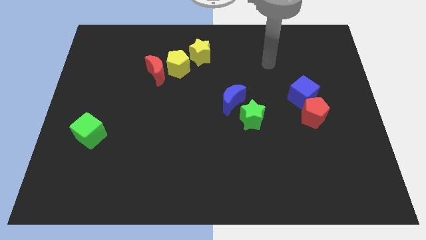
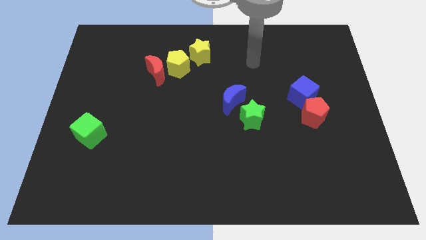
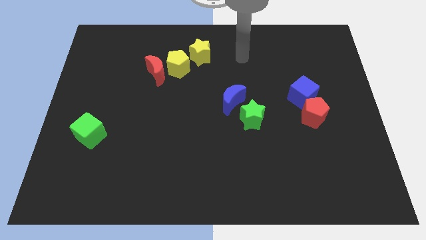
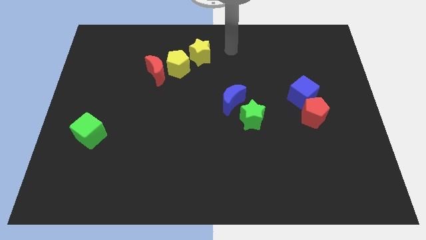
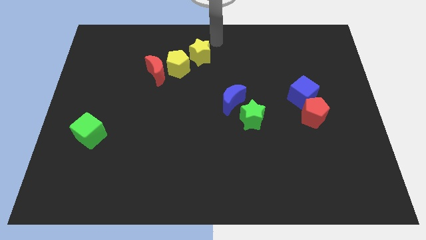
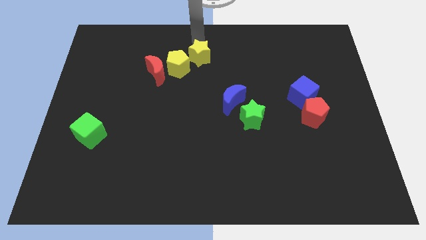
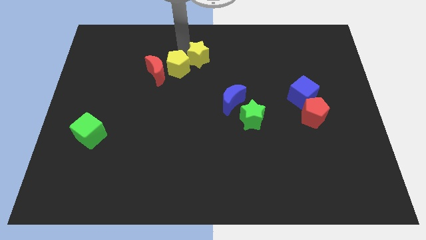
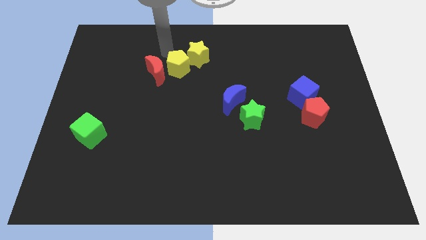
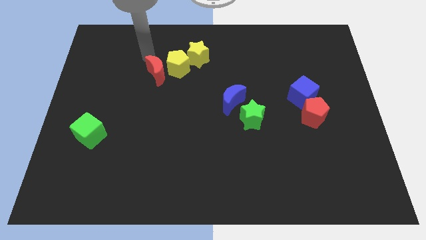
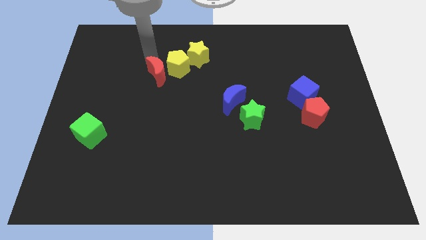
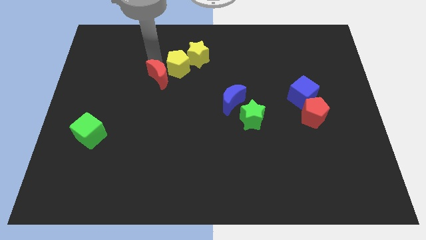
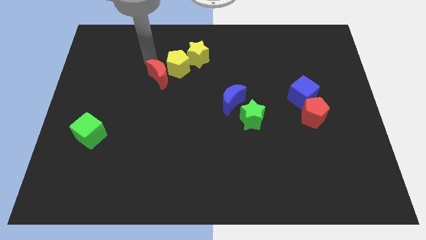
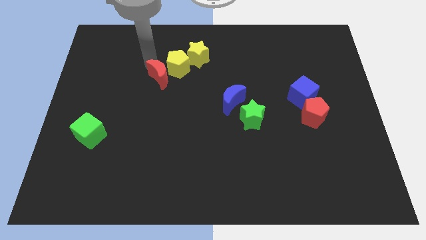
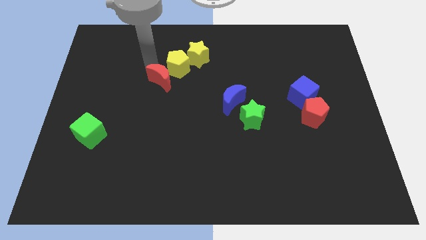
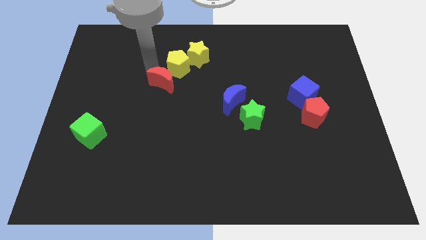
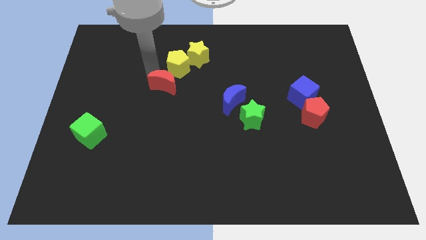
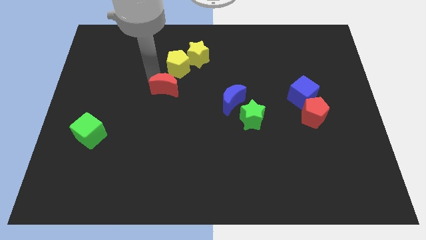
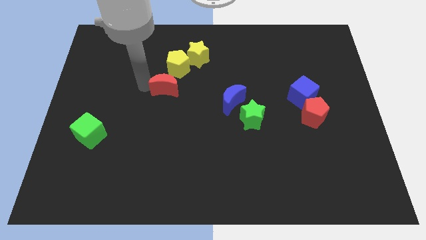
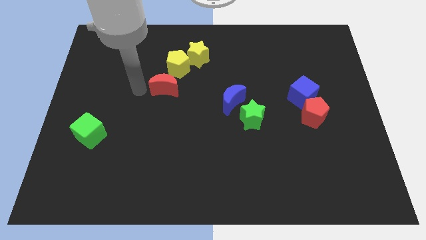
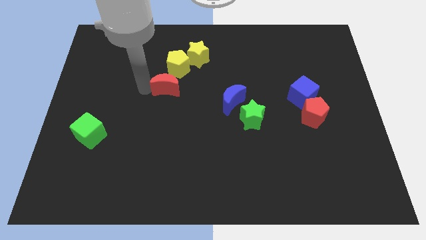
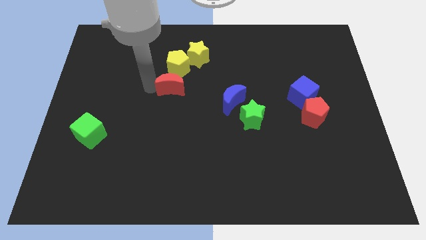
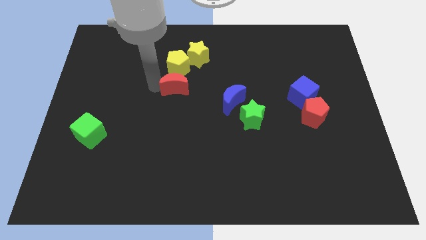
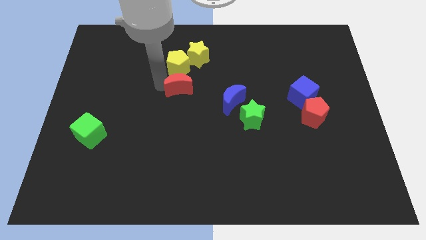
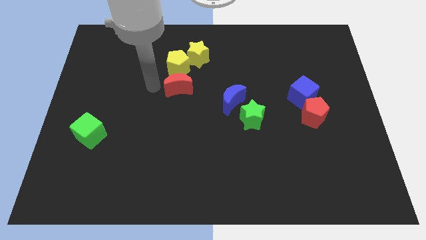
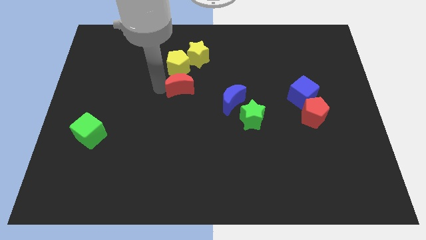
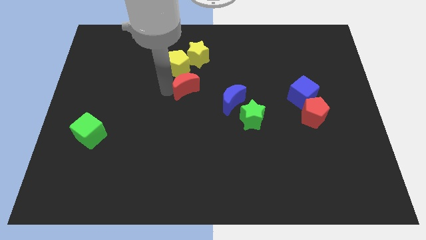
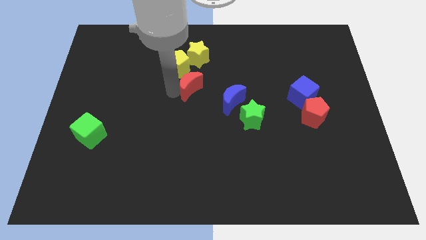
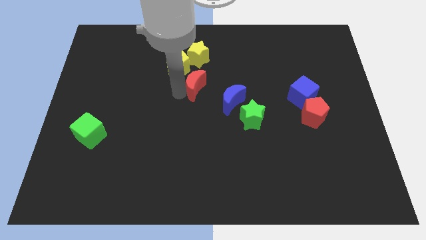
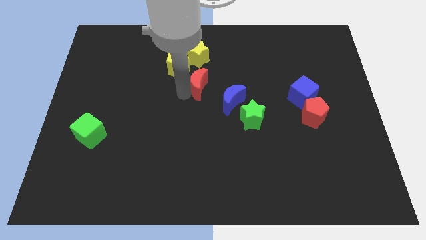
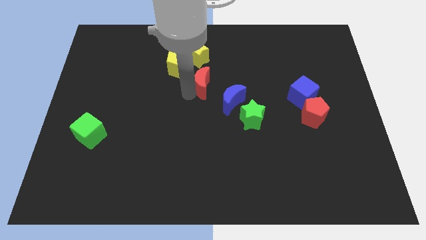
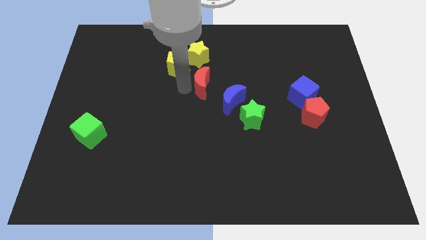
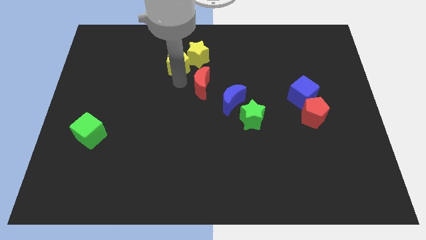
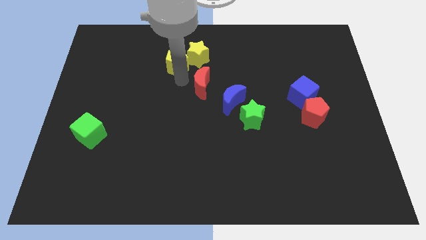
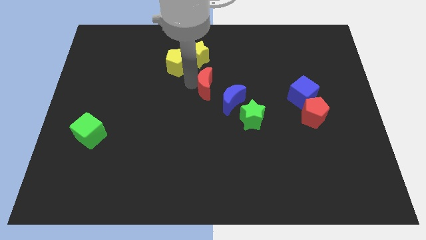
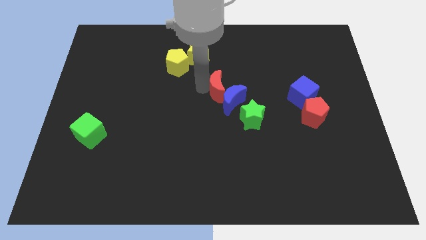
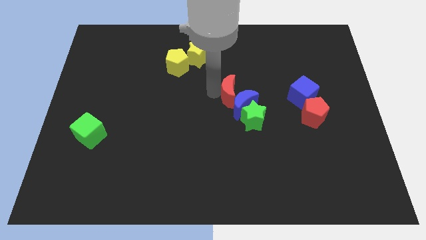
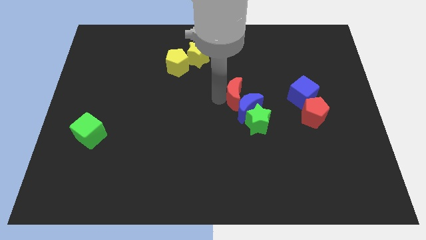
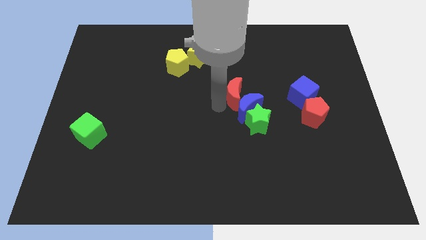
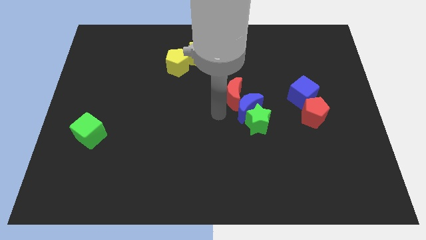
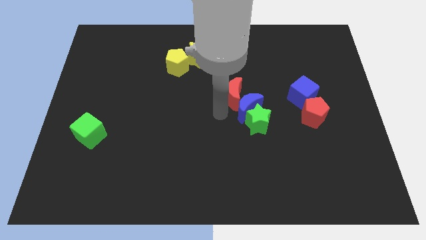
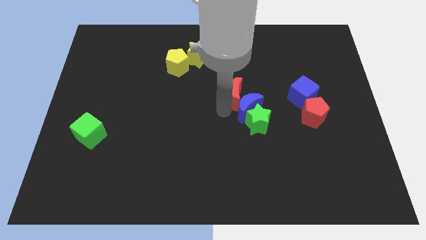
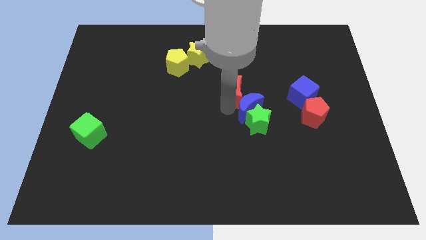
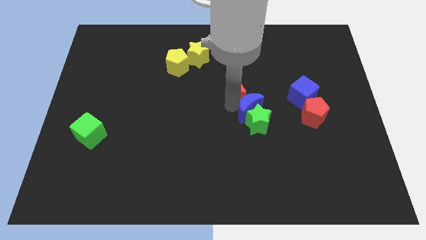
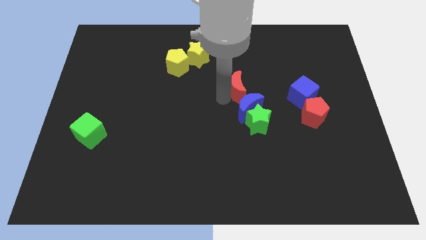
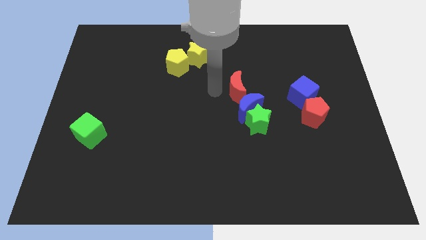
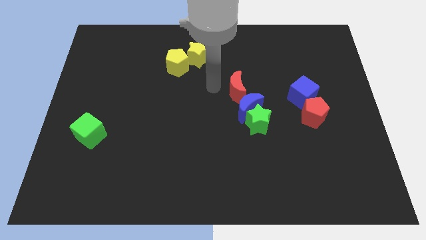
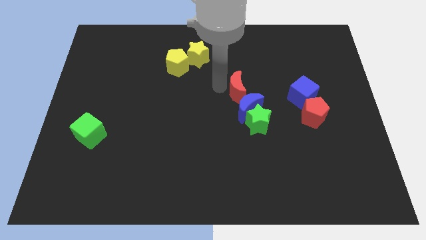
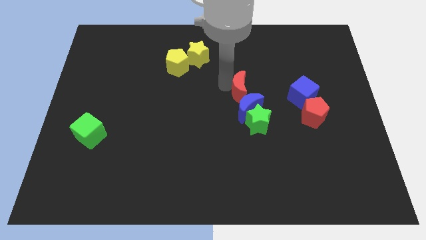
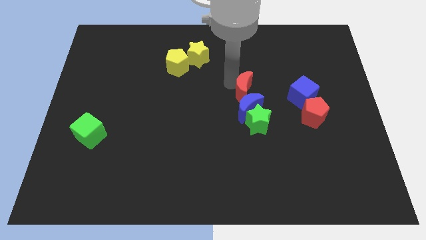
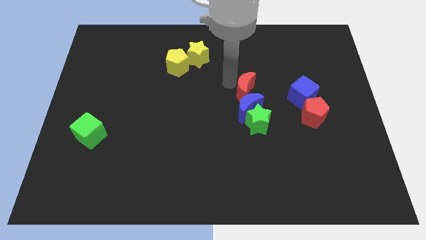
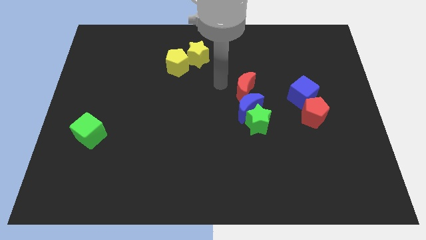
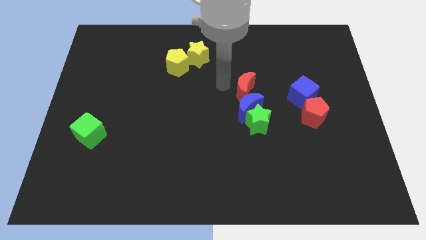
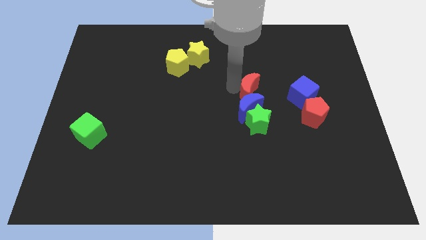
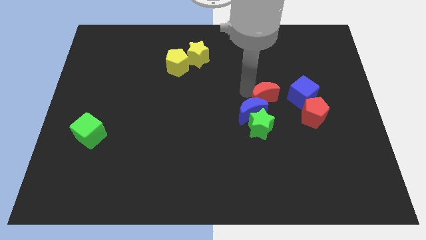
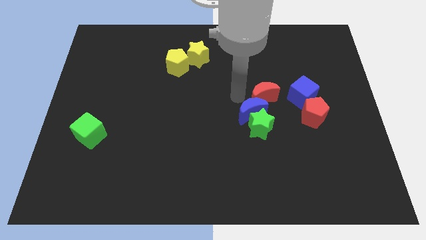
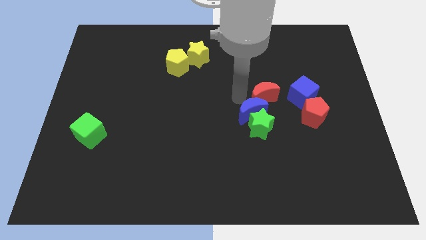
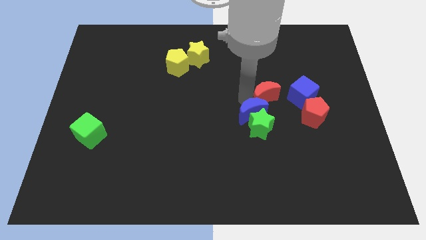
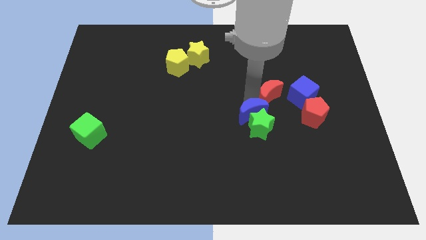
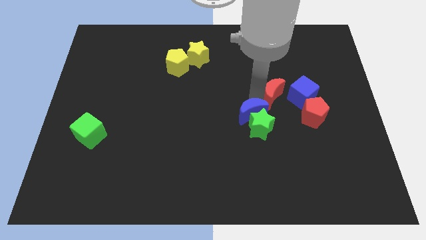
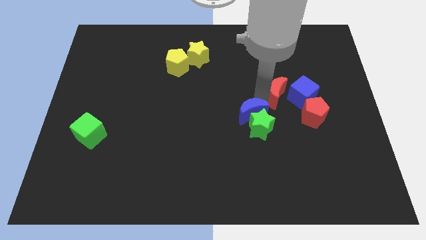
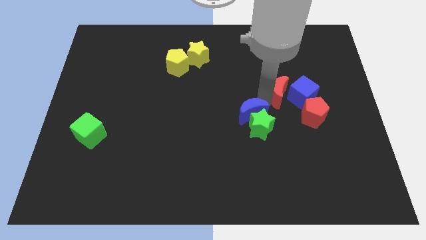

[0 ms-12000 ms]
slide the red moon to the blue cube

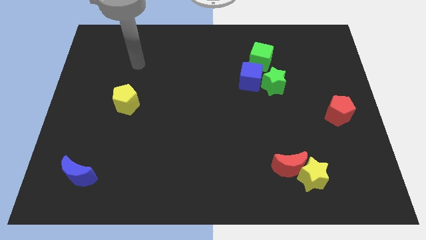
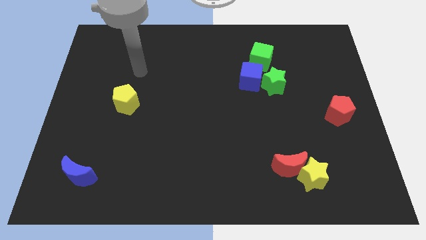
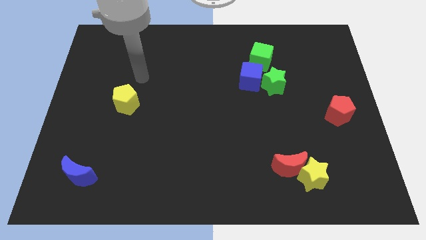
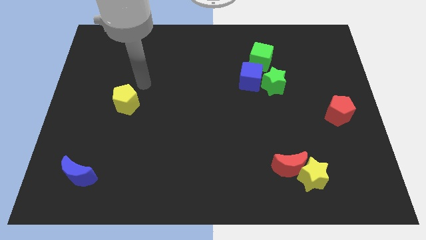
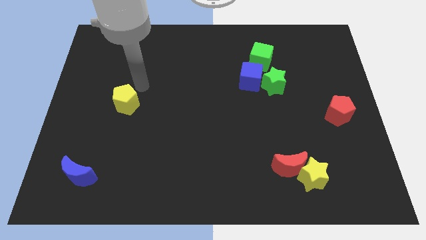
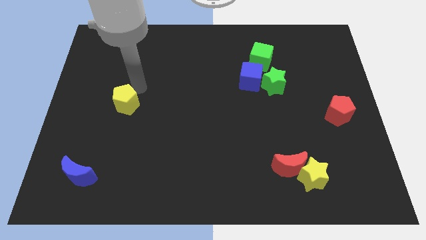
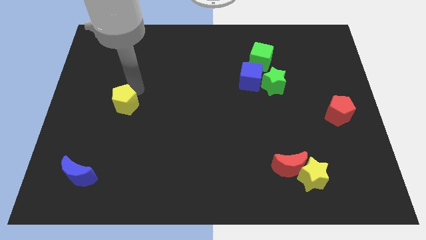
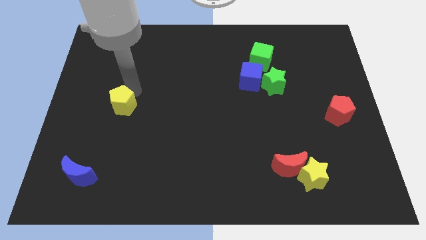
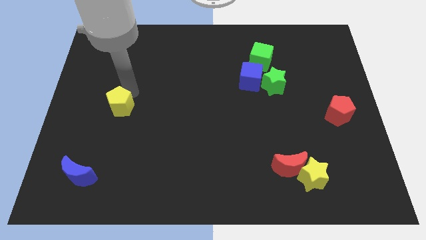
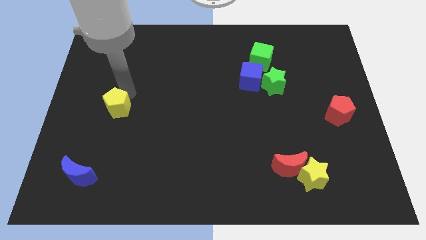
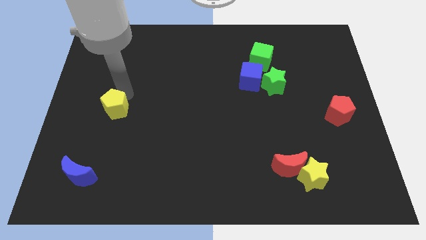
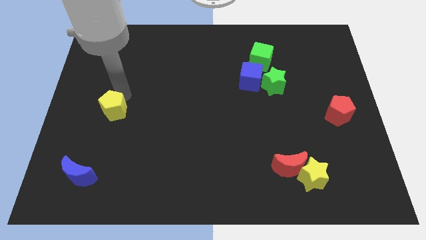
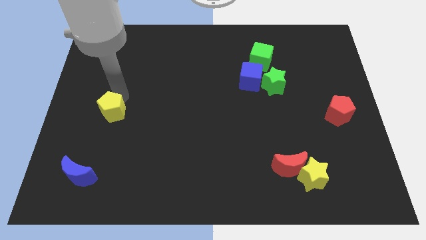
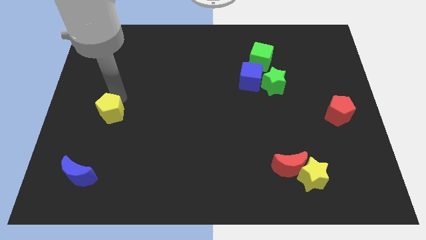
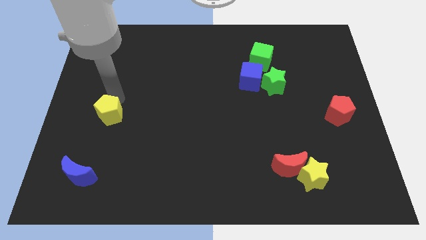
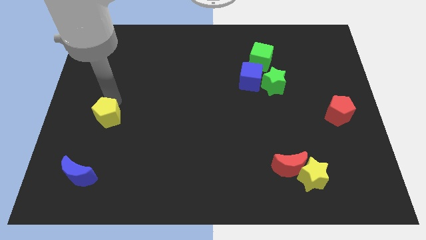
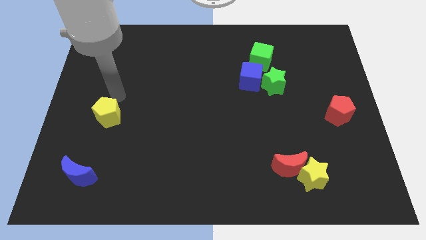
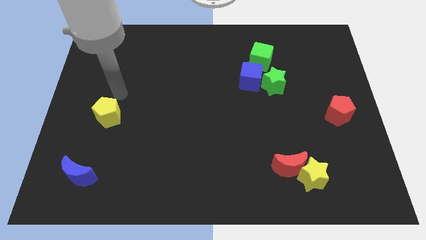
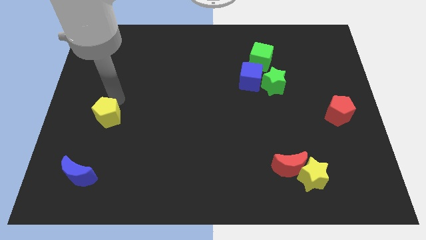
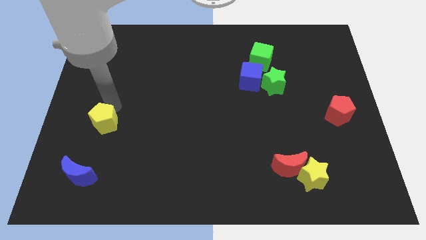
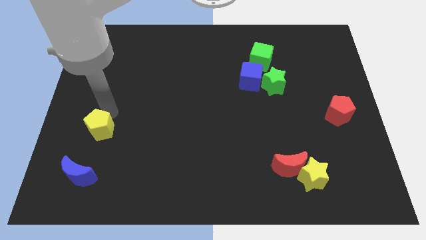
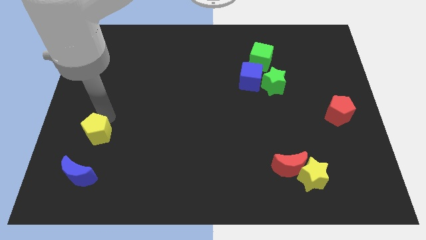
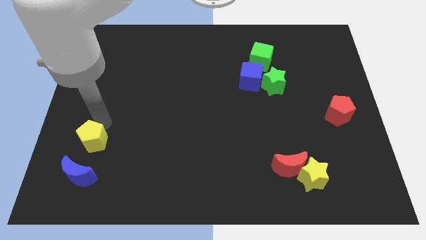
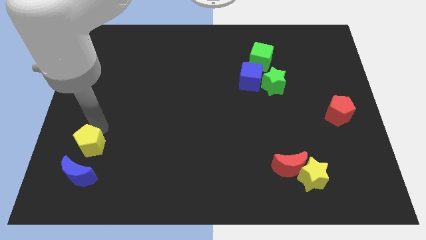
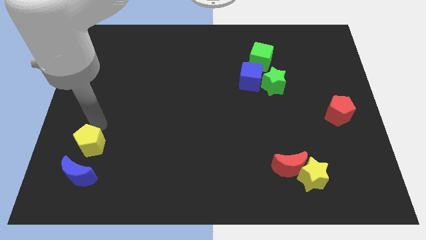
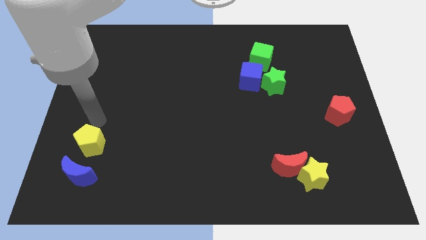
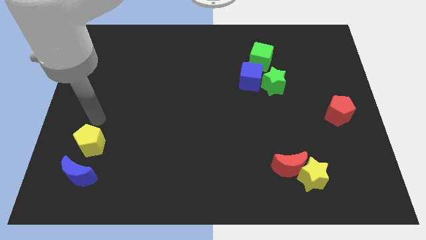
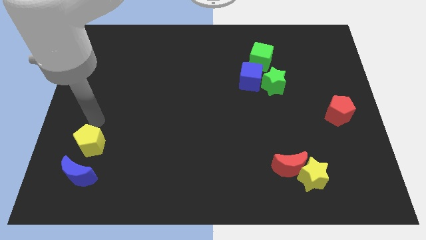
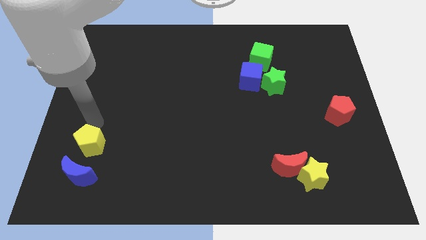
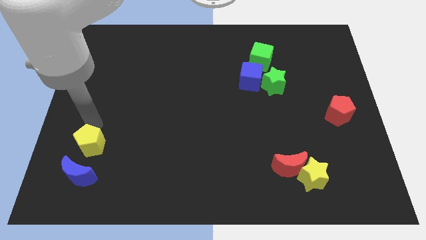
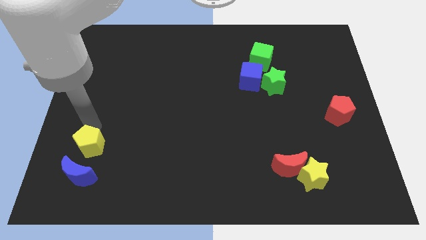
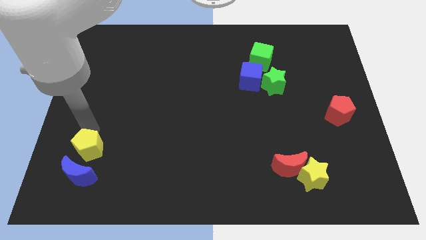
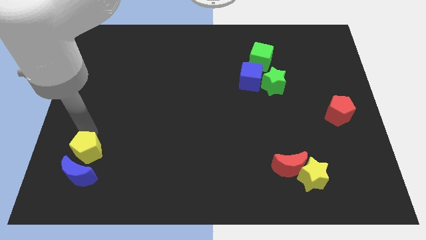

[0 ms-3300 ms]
move the yellow pentagon to the blue moon
